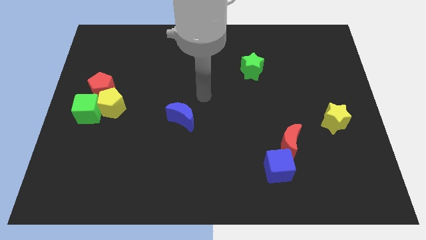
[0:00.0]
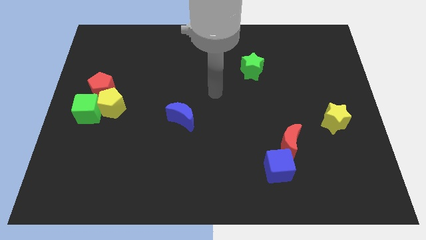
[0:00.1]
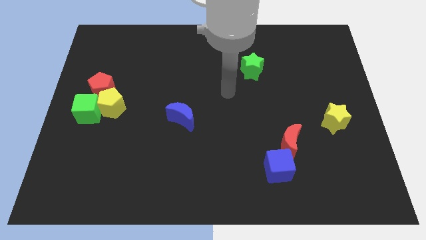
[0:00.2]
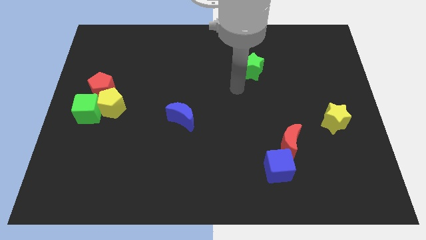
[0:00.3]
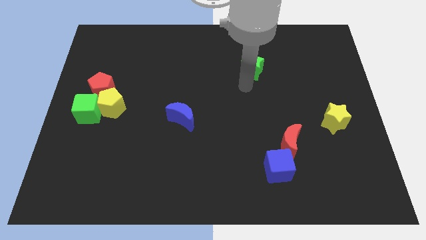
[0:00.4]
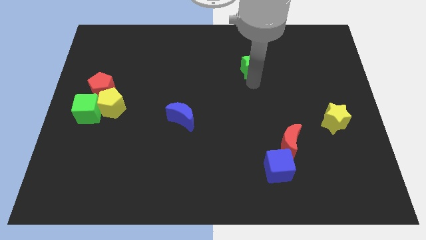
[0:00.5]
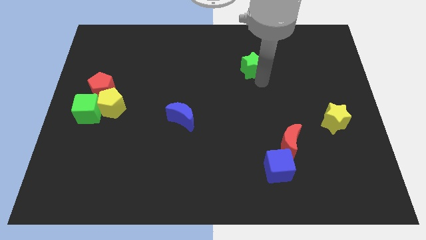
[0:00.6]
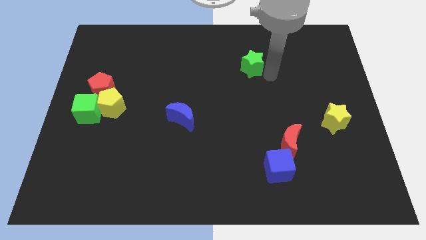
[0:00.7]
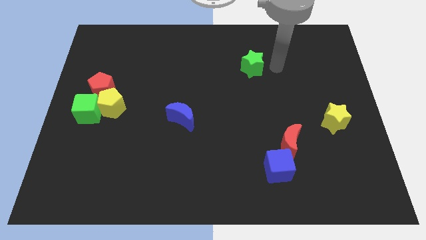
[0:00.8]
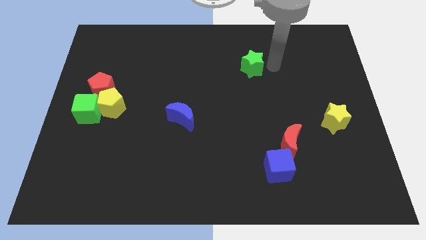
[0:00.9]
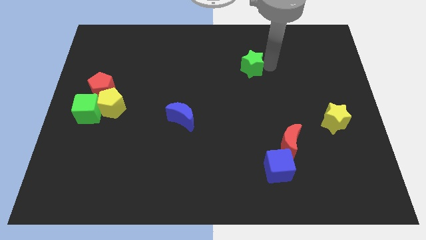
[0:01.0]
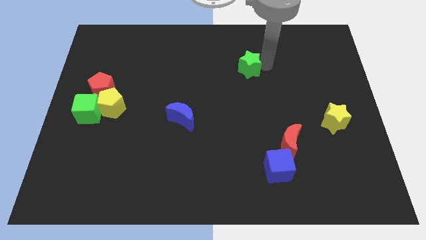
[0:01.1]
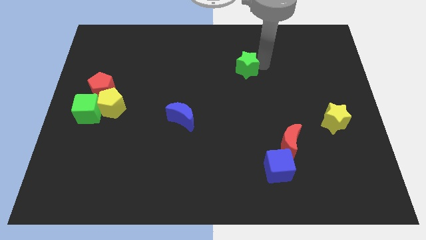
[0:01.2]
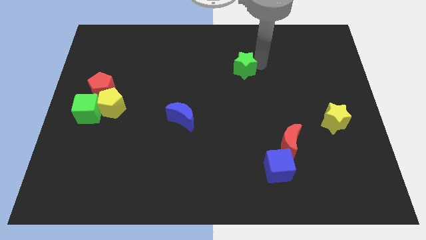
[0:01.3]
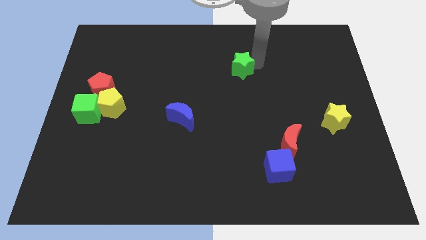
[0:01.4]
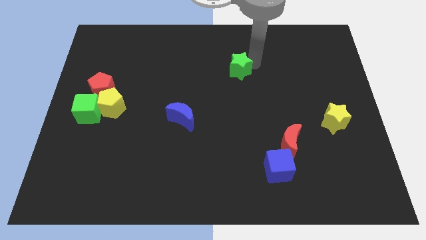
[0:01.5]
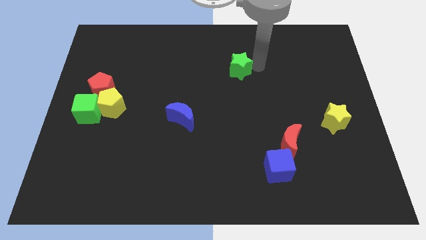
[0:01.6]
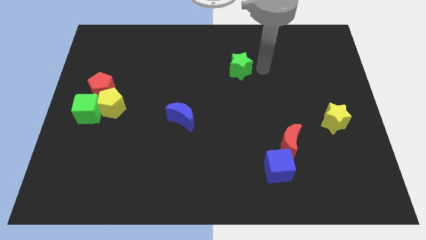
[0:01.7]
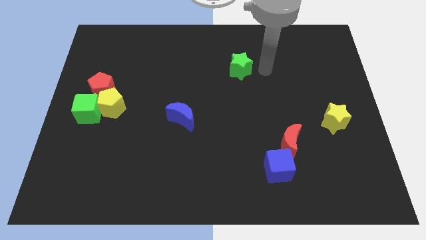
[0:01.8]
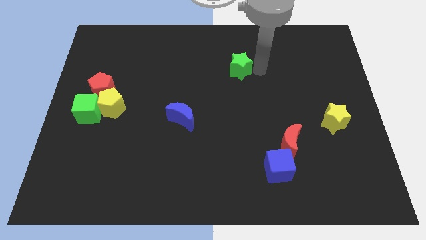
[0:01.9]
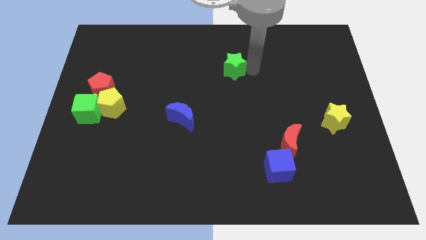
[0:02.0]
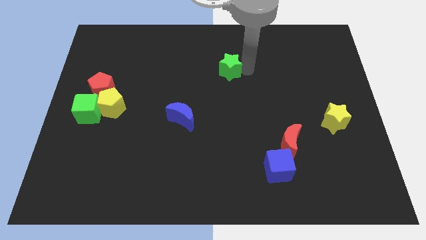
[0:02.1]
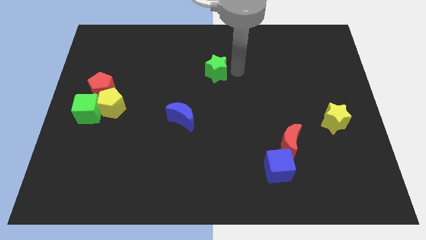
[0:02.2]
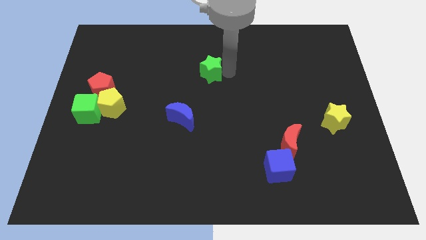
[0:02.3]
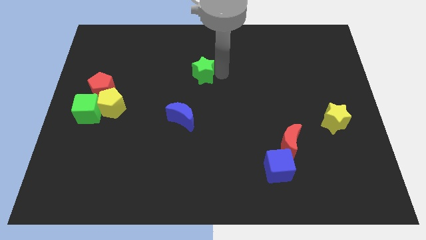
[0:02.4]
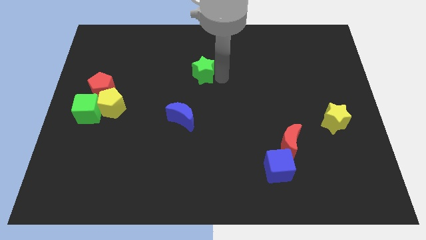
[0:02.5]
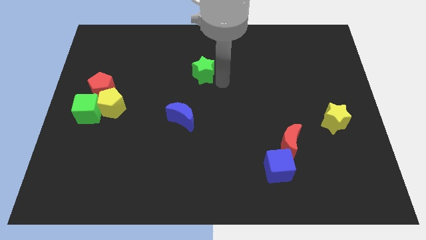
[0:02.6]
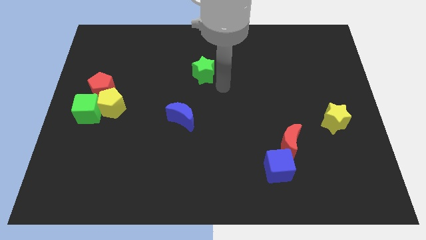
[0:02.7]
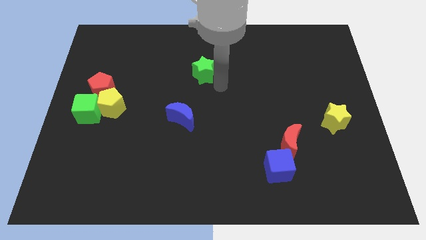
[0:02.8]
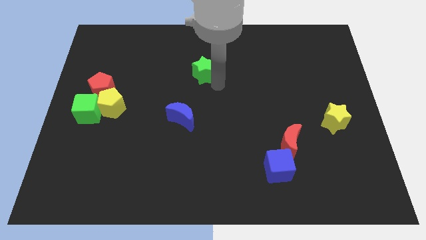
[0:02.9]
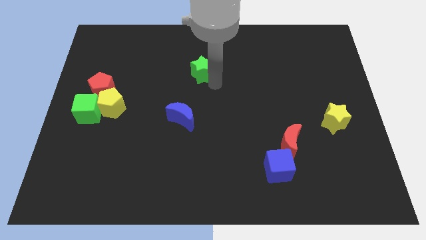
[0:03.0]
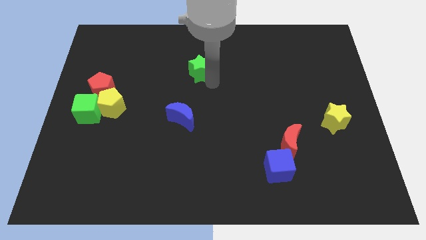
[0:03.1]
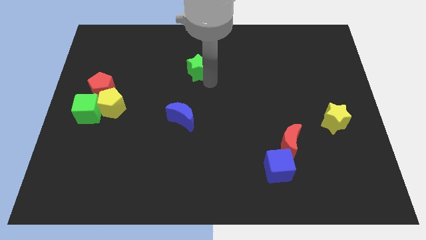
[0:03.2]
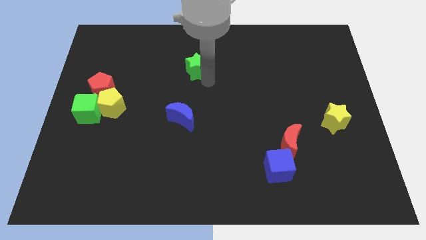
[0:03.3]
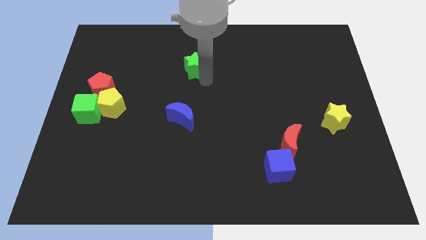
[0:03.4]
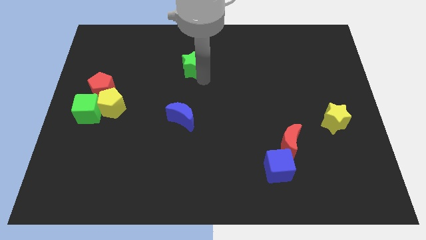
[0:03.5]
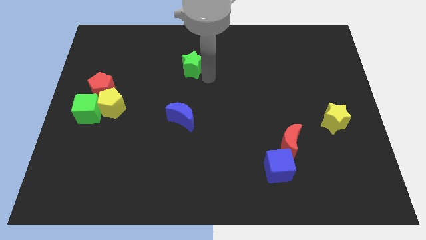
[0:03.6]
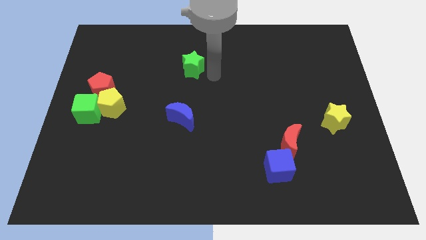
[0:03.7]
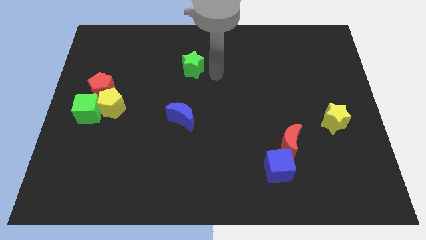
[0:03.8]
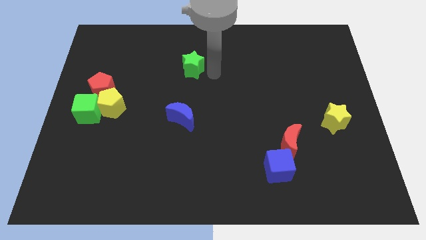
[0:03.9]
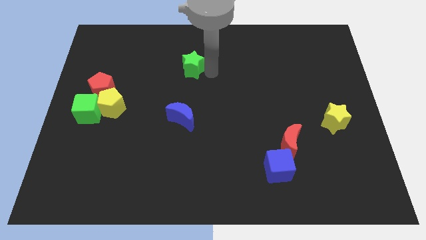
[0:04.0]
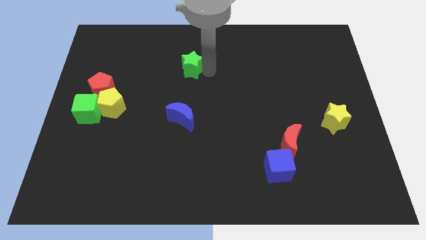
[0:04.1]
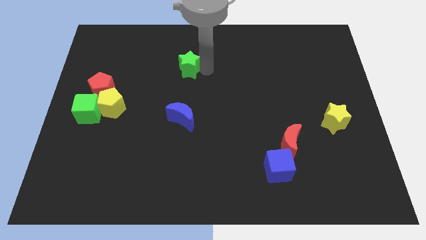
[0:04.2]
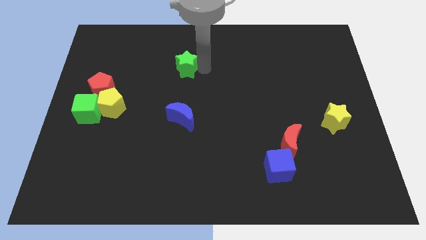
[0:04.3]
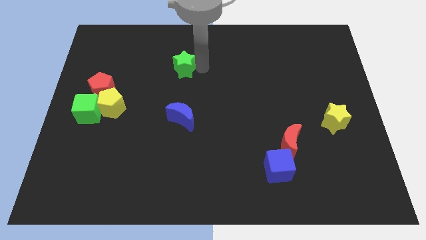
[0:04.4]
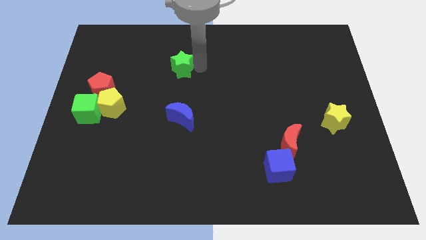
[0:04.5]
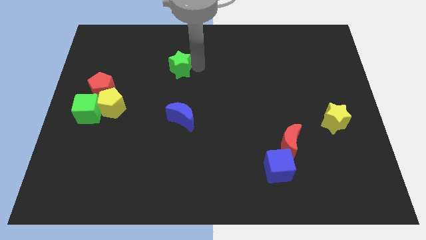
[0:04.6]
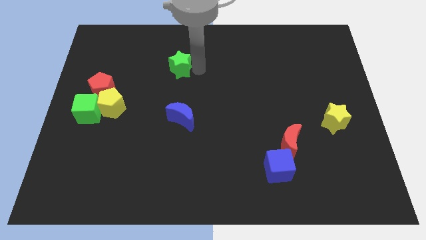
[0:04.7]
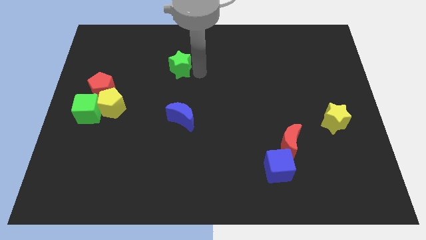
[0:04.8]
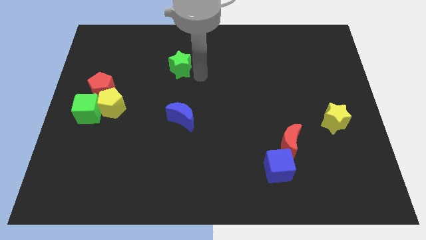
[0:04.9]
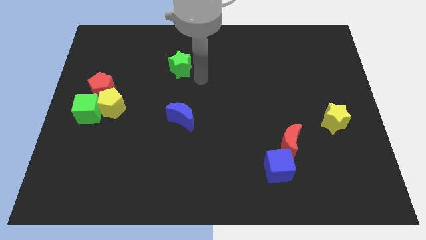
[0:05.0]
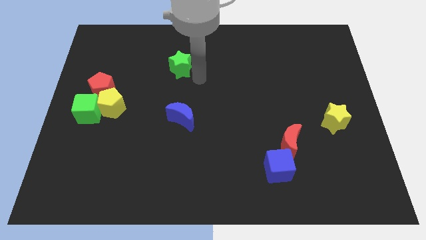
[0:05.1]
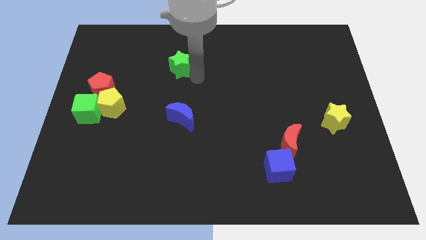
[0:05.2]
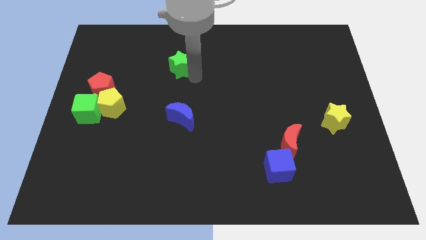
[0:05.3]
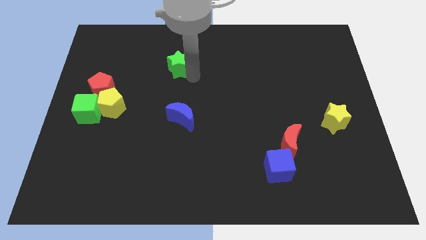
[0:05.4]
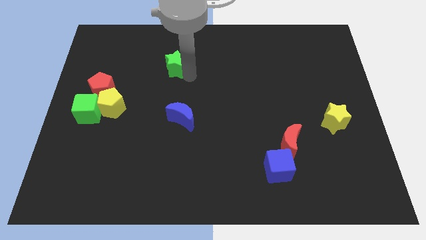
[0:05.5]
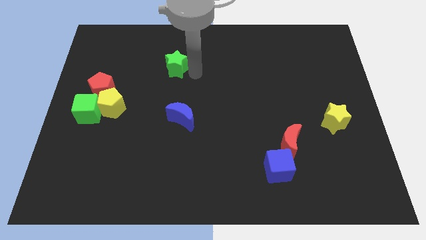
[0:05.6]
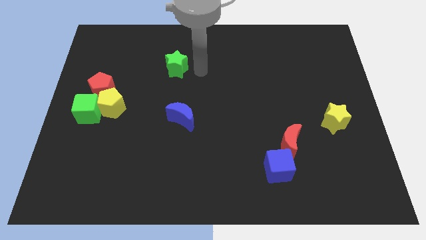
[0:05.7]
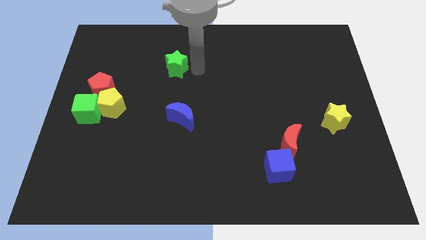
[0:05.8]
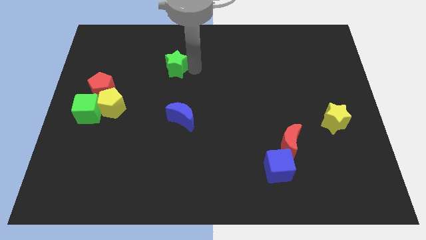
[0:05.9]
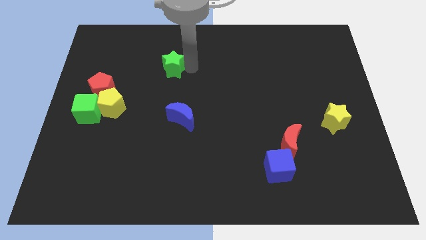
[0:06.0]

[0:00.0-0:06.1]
slide the green star left

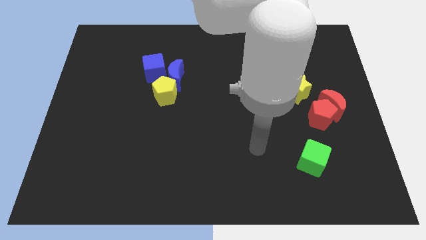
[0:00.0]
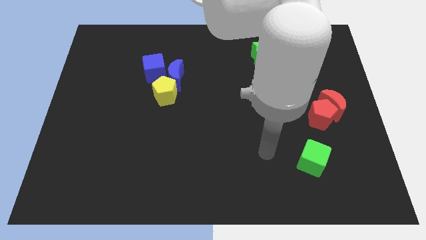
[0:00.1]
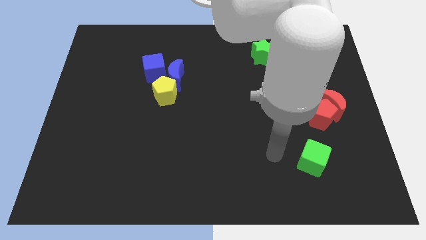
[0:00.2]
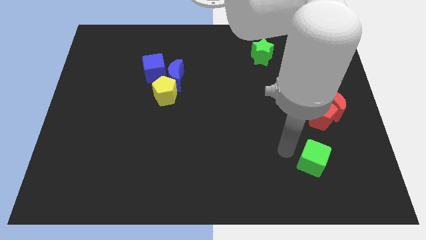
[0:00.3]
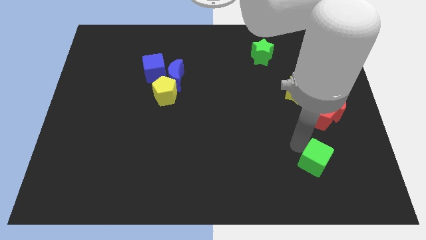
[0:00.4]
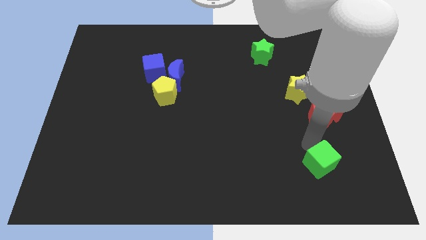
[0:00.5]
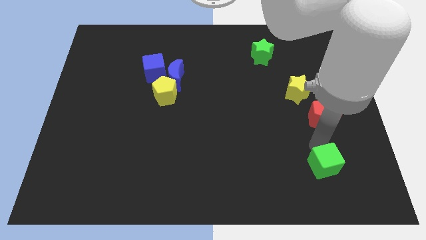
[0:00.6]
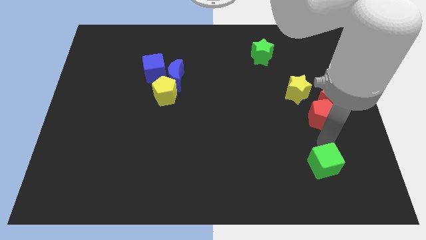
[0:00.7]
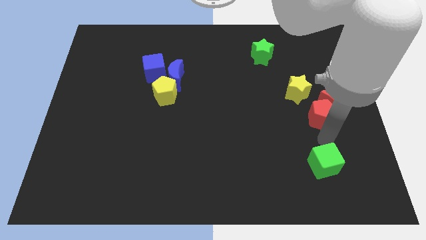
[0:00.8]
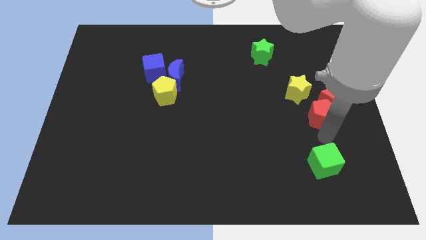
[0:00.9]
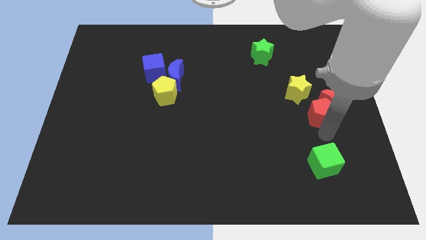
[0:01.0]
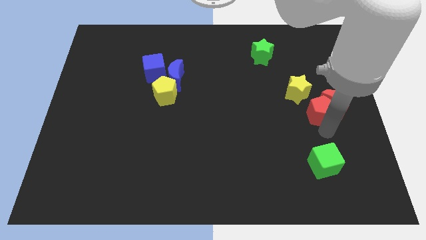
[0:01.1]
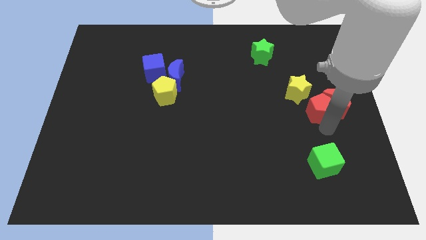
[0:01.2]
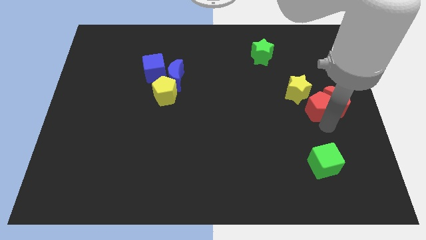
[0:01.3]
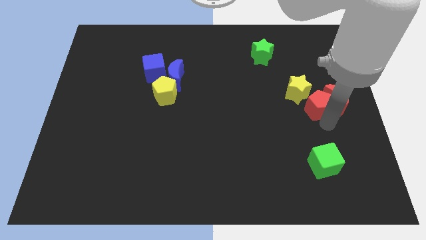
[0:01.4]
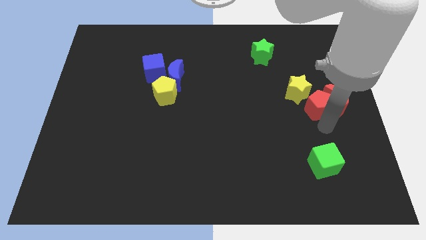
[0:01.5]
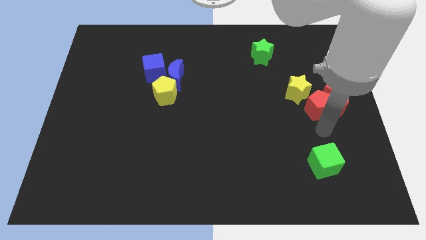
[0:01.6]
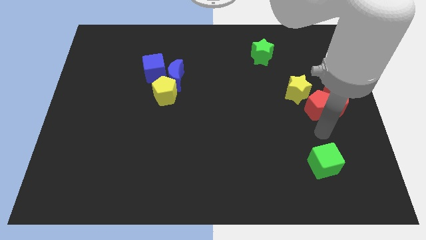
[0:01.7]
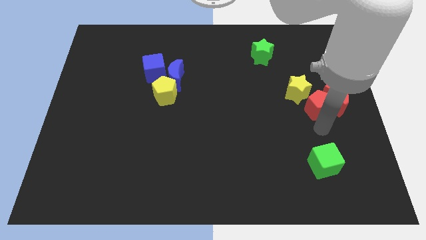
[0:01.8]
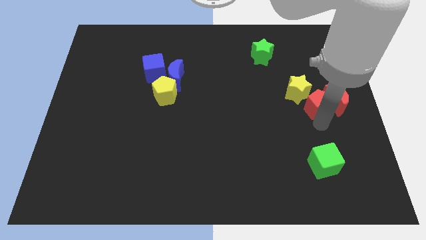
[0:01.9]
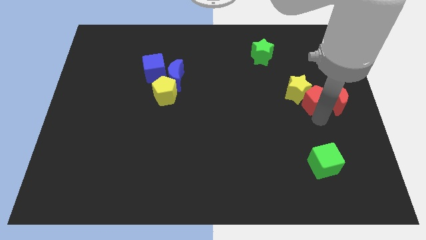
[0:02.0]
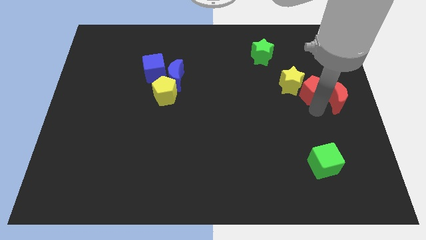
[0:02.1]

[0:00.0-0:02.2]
slightly push the red pentagon up
